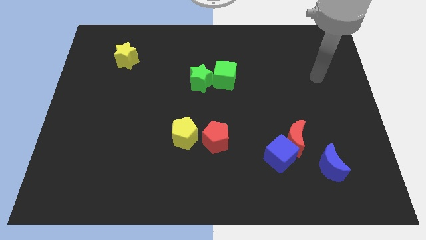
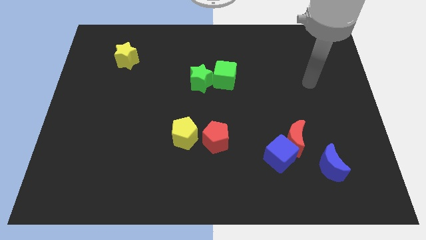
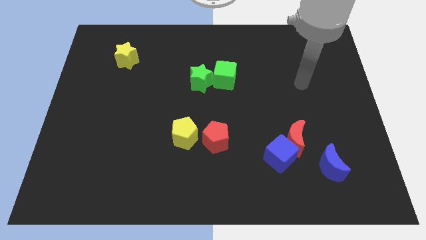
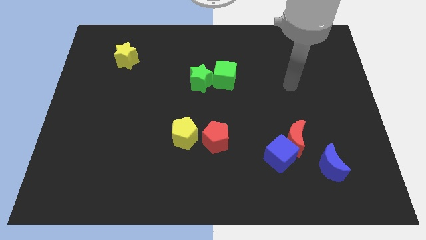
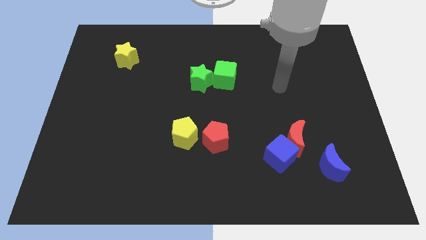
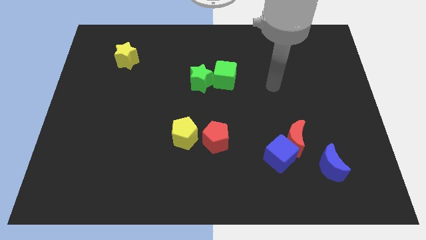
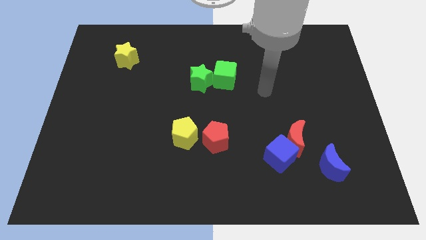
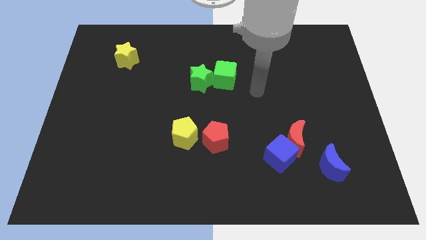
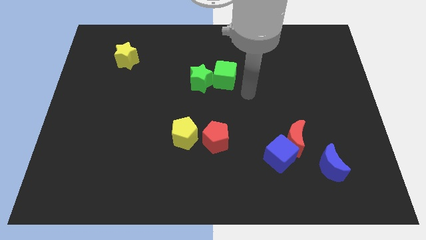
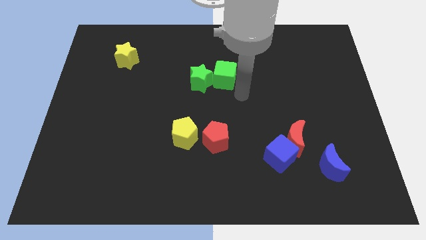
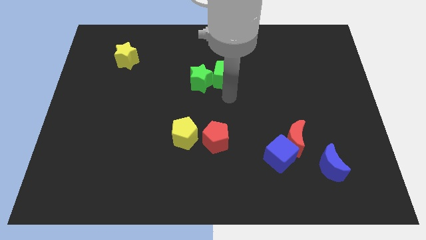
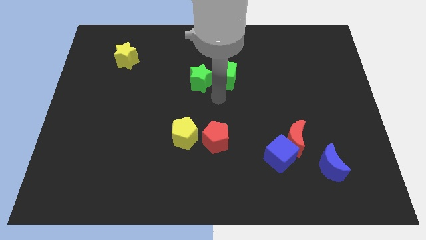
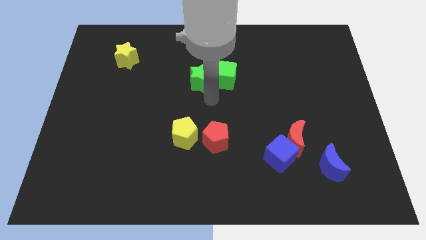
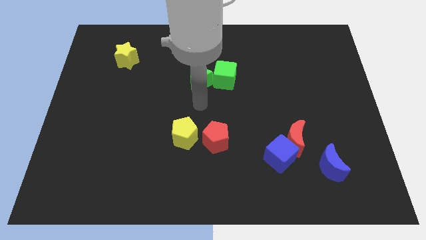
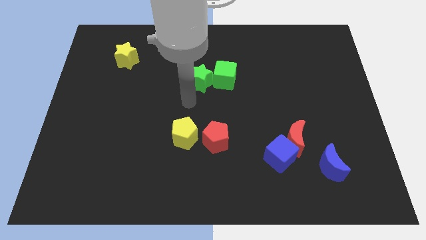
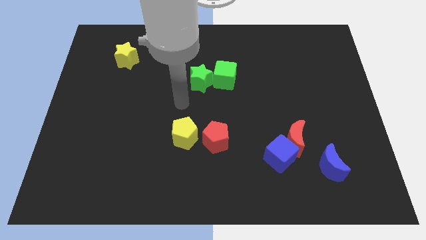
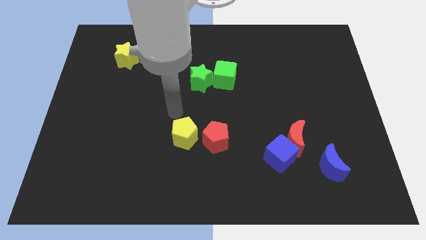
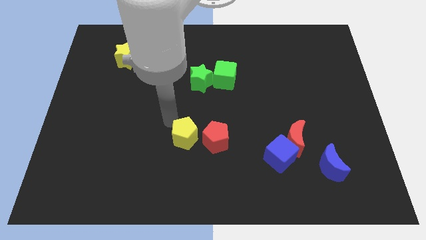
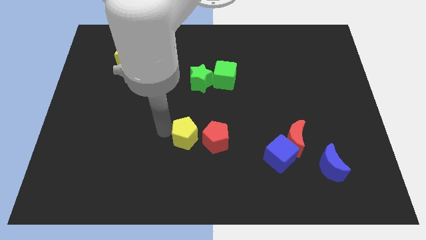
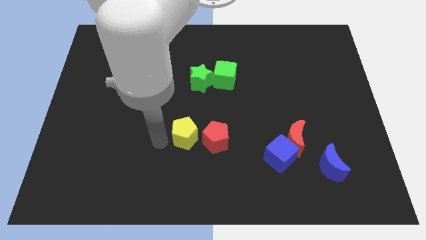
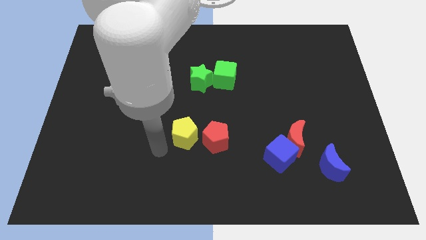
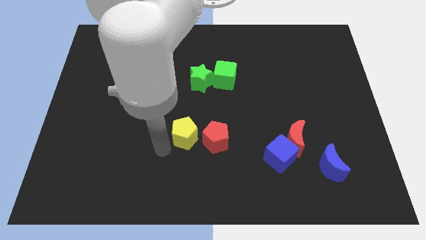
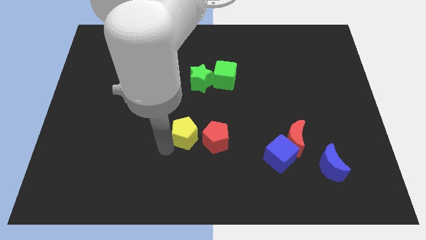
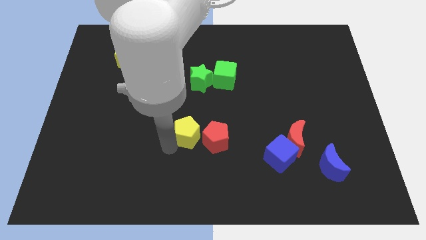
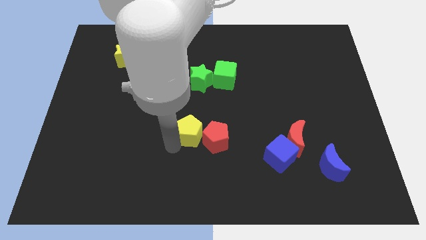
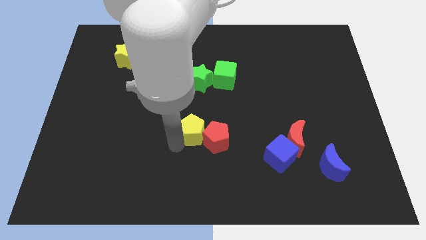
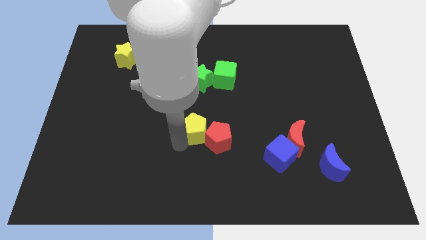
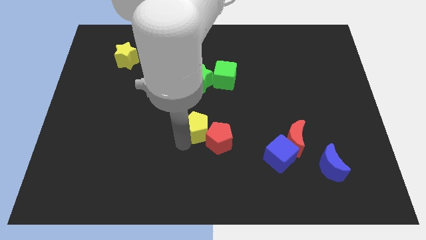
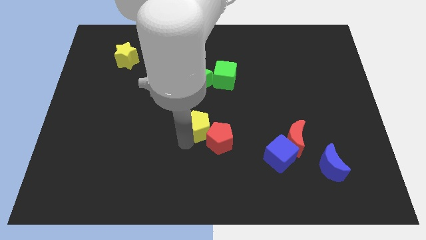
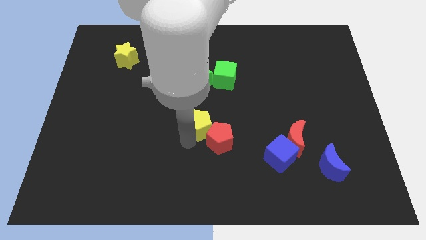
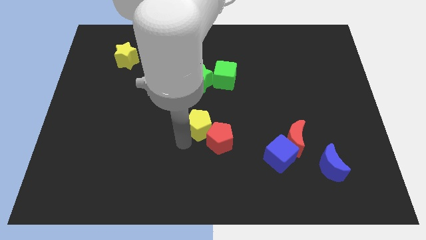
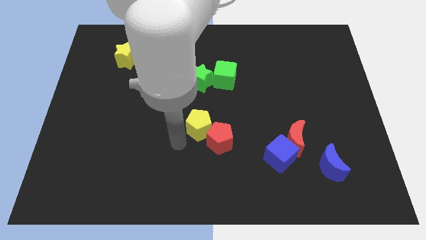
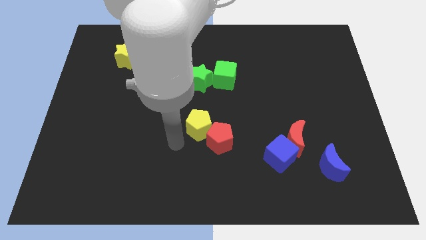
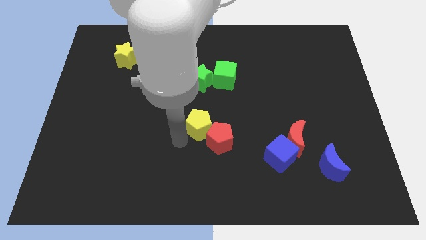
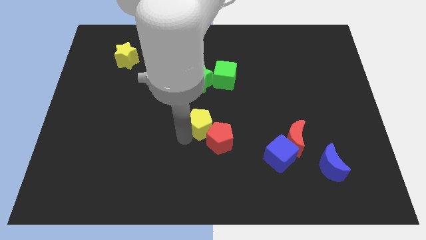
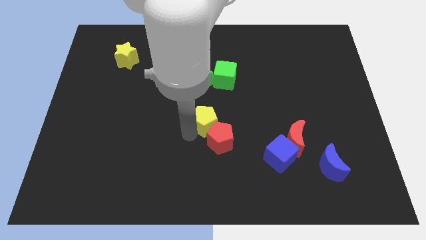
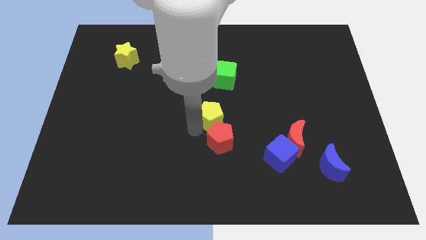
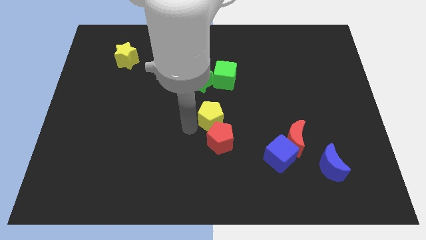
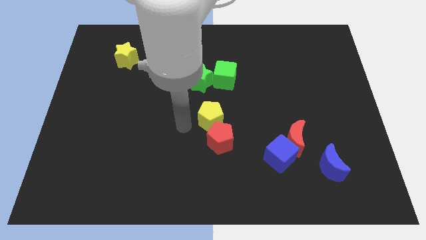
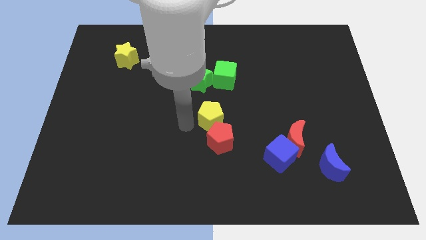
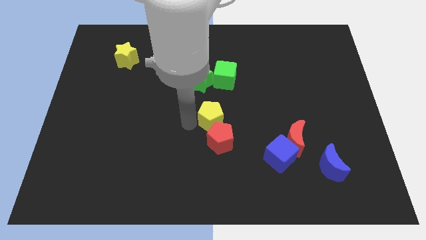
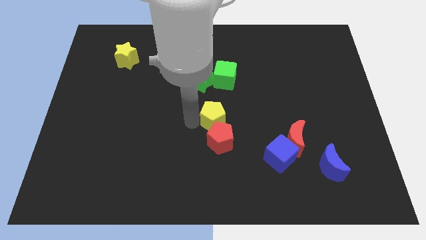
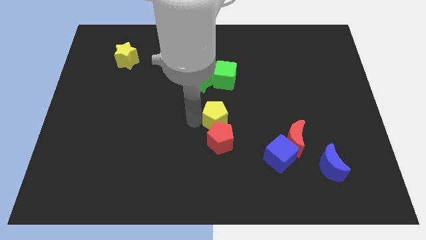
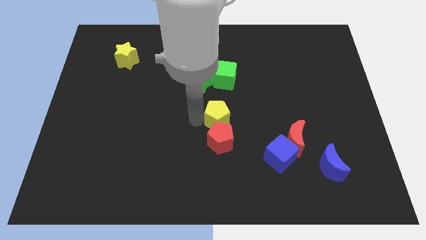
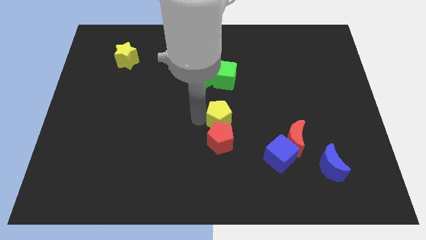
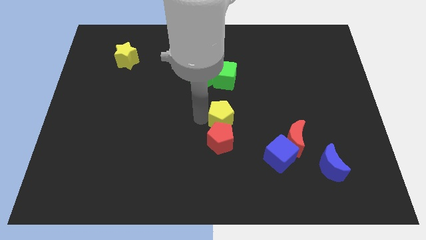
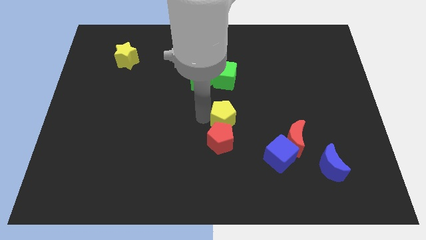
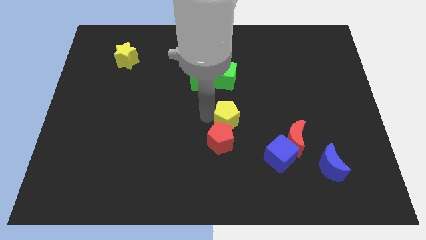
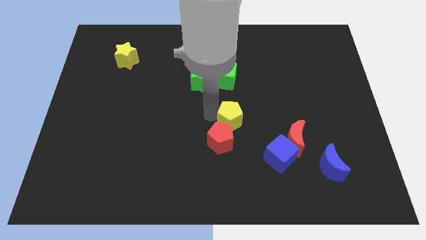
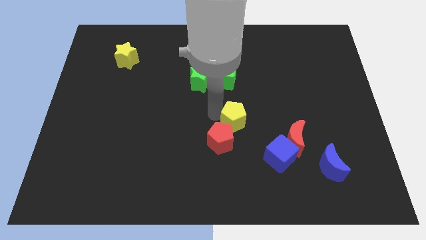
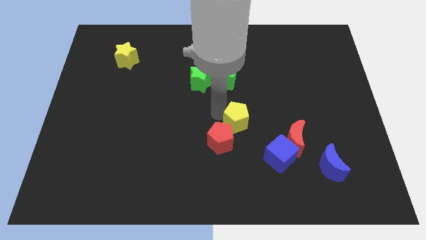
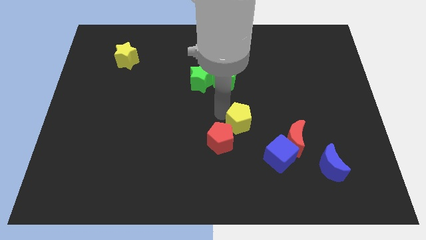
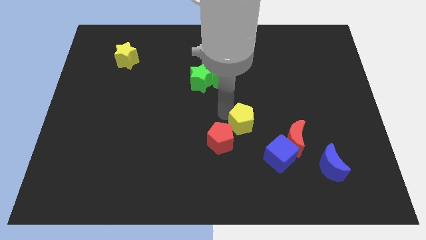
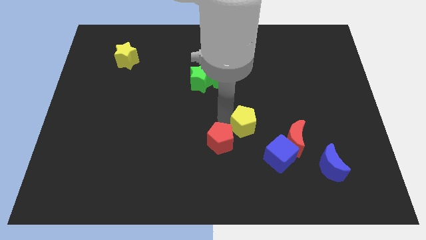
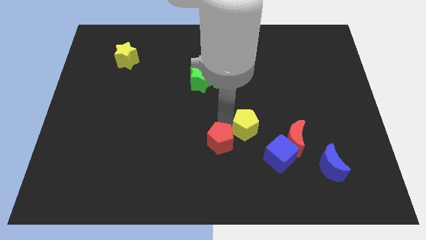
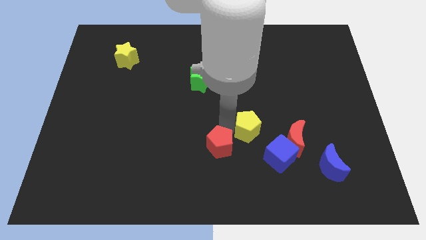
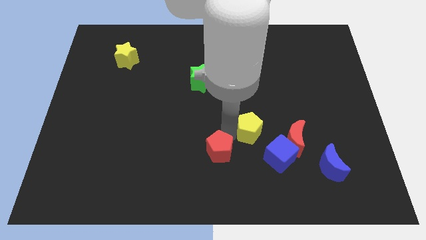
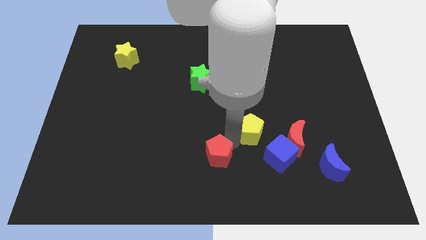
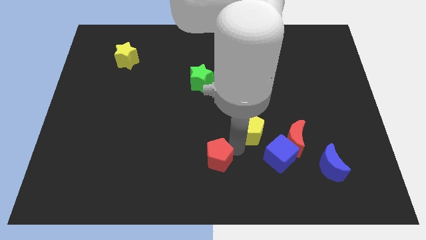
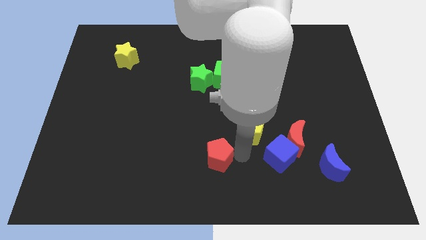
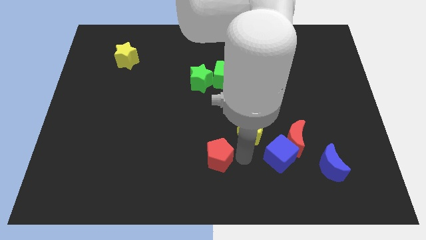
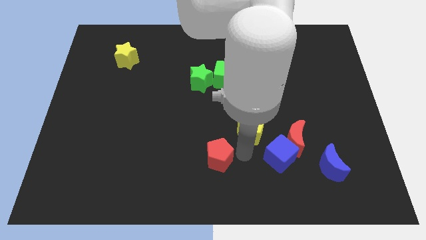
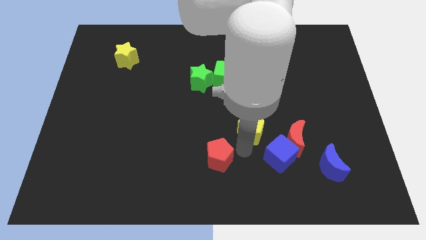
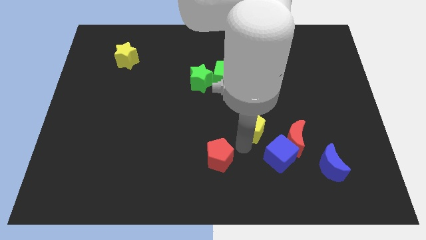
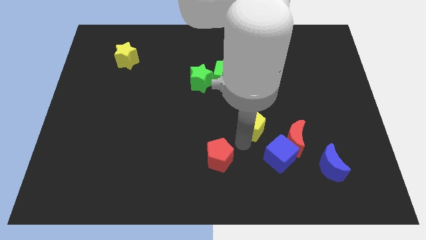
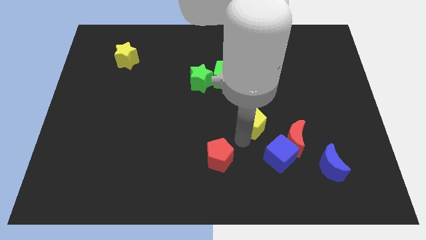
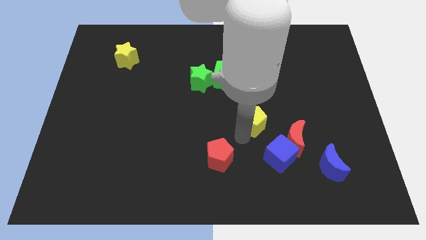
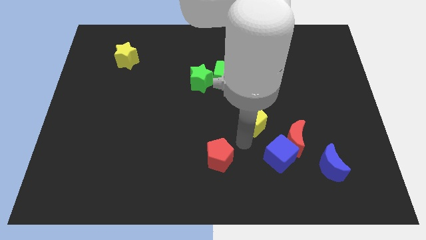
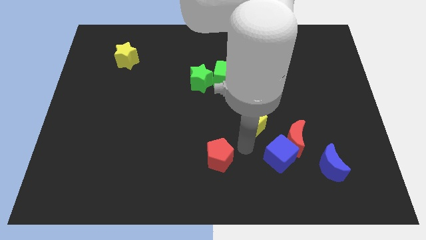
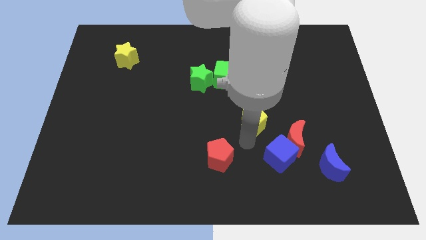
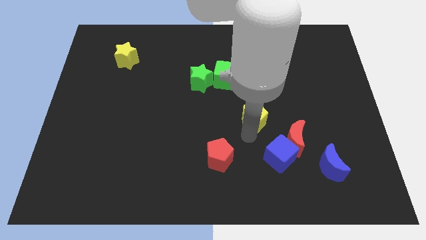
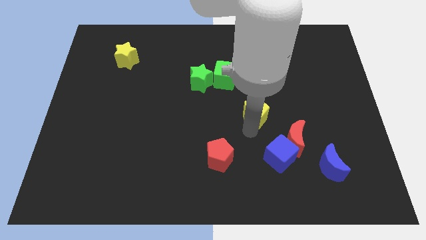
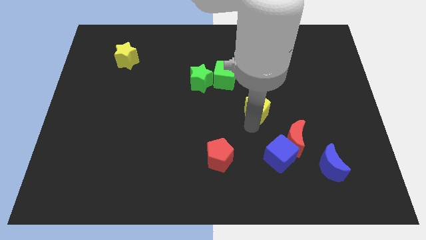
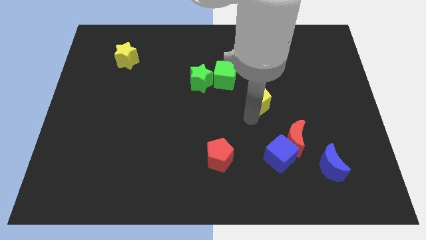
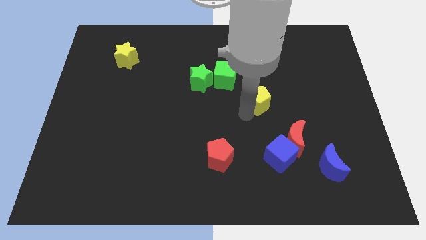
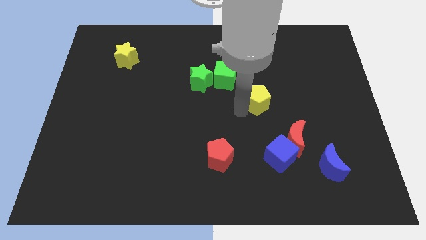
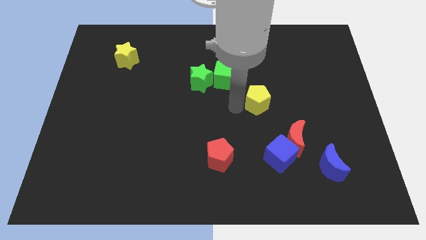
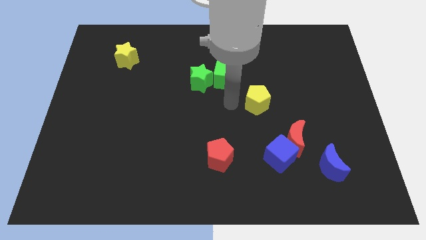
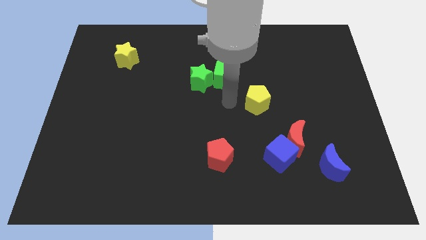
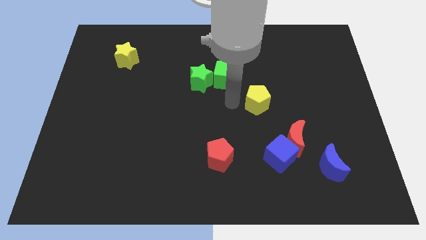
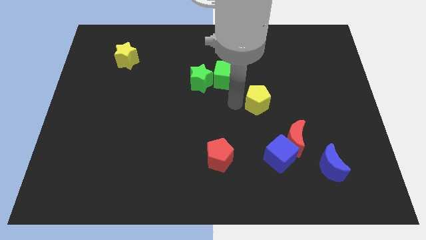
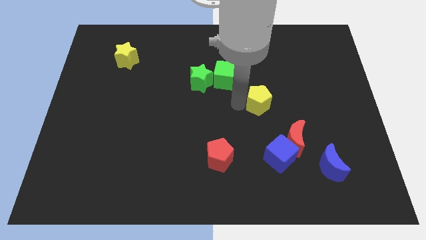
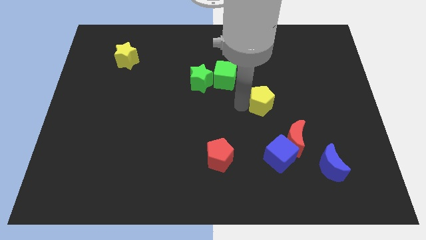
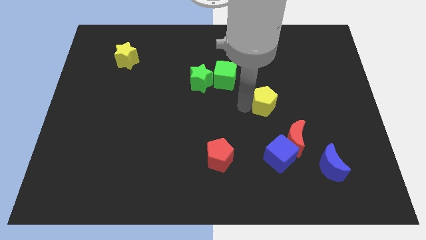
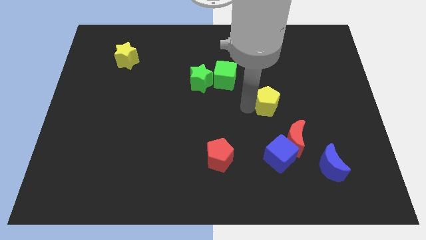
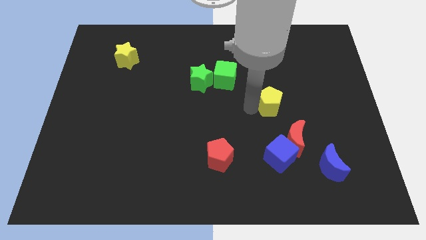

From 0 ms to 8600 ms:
slide the yellow pentagon to the top side of the red moon
